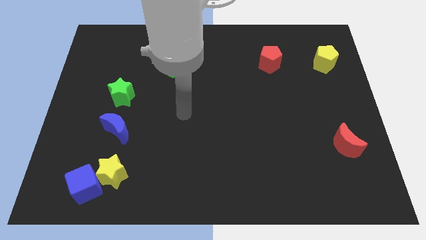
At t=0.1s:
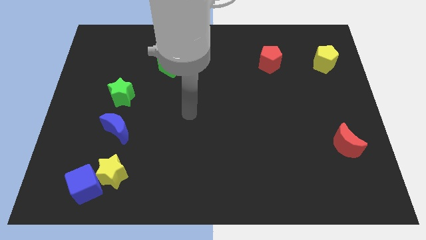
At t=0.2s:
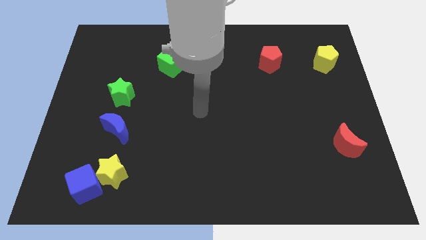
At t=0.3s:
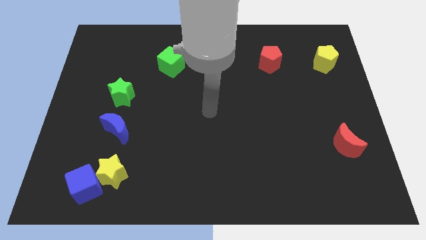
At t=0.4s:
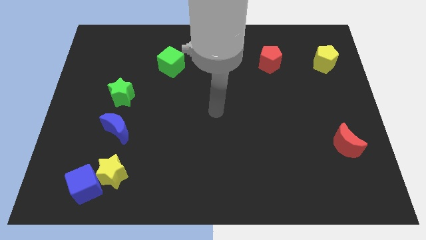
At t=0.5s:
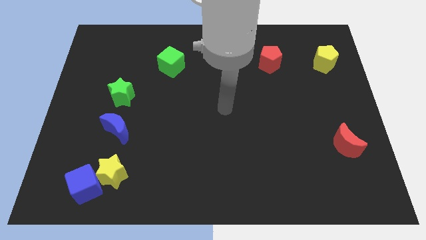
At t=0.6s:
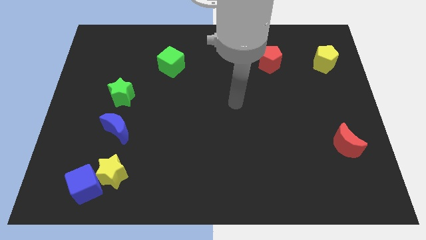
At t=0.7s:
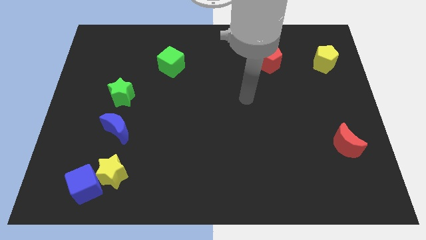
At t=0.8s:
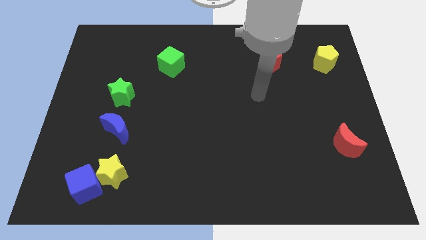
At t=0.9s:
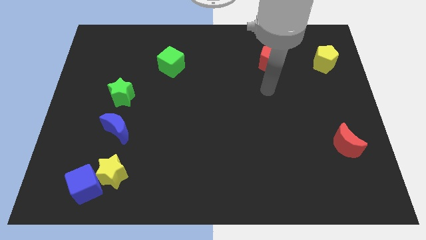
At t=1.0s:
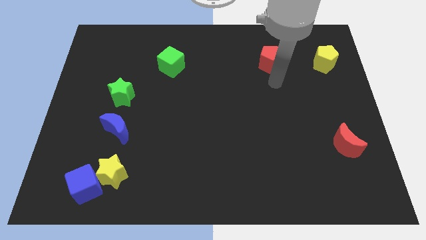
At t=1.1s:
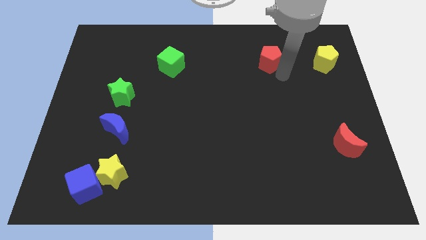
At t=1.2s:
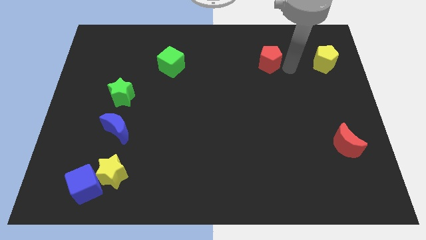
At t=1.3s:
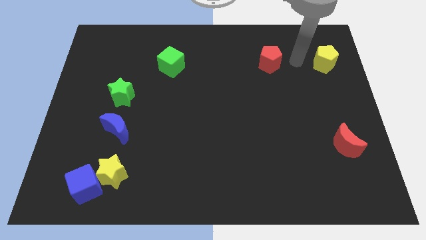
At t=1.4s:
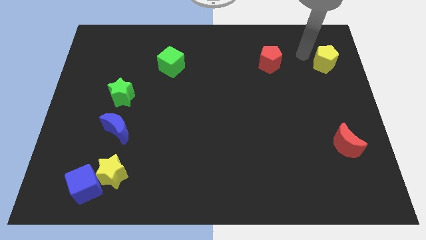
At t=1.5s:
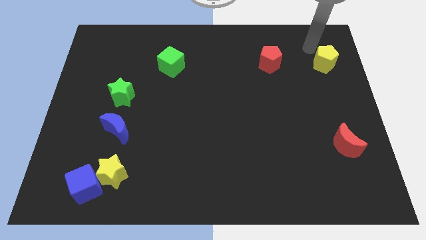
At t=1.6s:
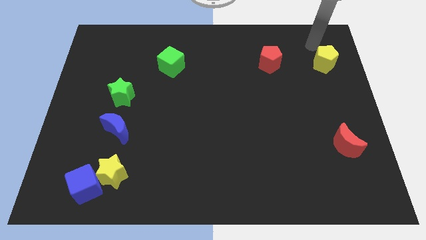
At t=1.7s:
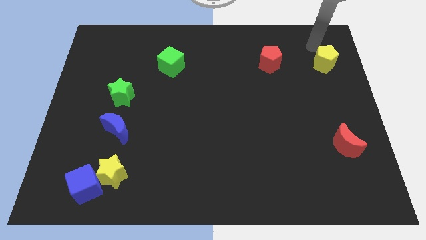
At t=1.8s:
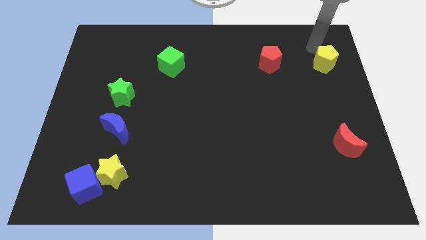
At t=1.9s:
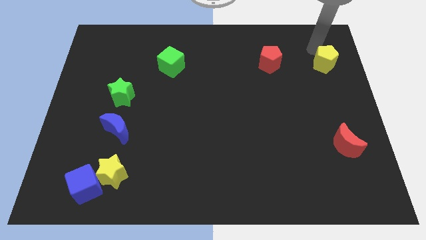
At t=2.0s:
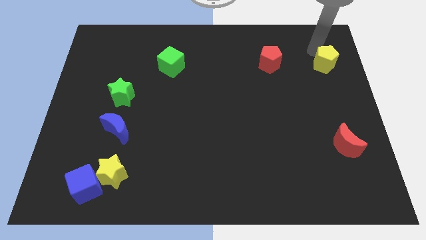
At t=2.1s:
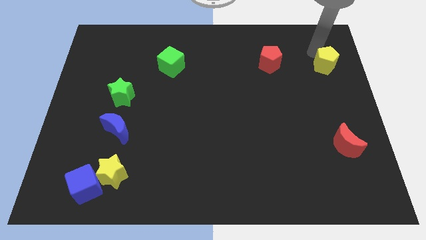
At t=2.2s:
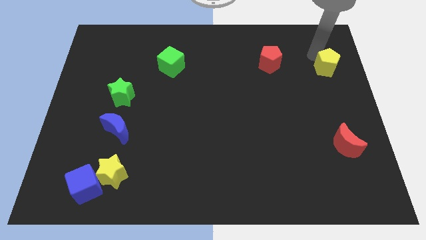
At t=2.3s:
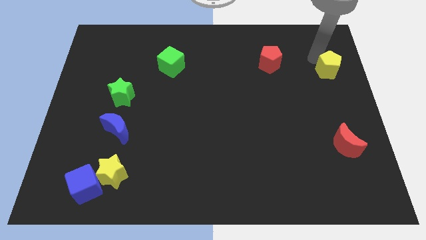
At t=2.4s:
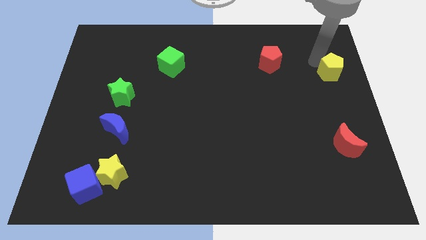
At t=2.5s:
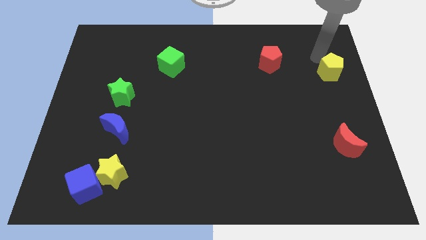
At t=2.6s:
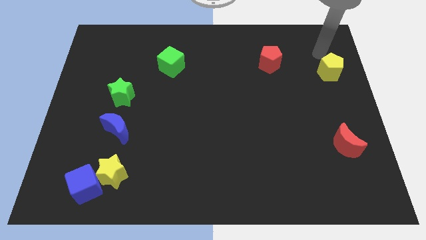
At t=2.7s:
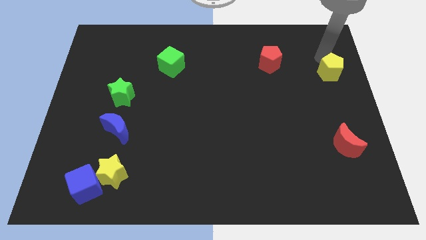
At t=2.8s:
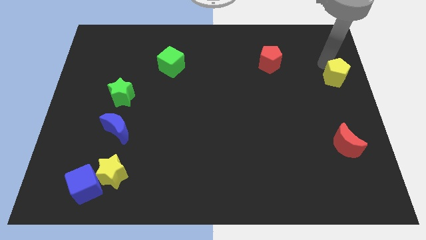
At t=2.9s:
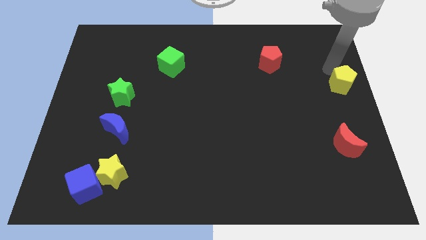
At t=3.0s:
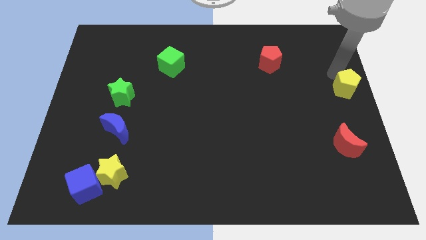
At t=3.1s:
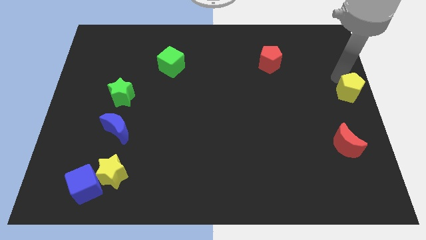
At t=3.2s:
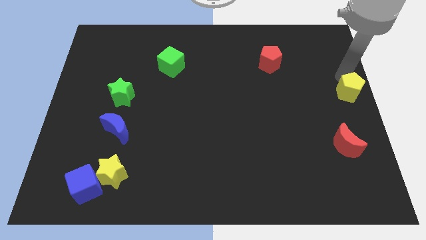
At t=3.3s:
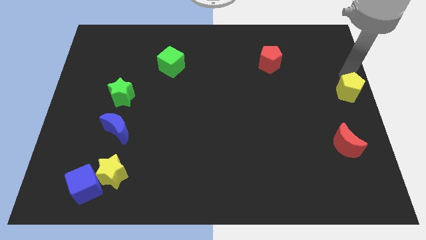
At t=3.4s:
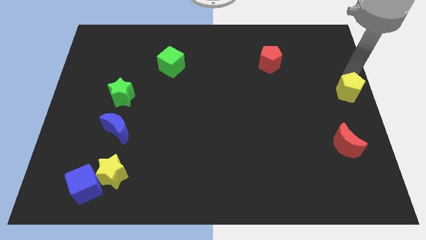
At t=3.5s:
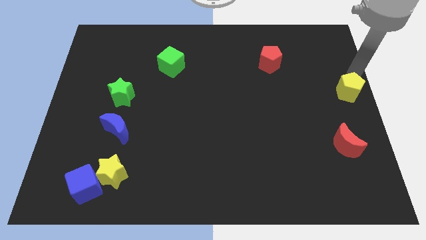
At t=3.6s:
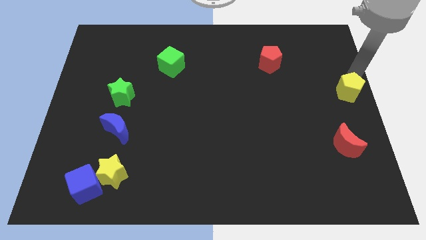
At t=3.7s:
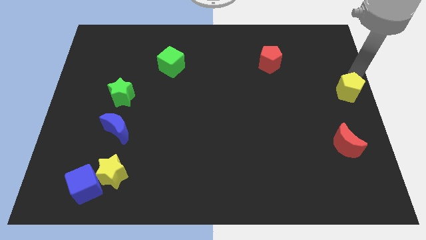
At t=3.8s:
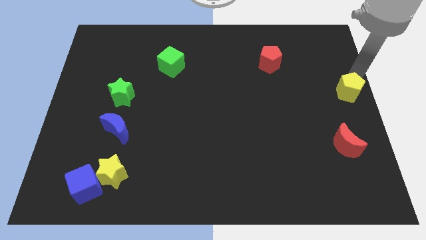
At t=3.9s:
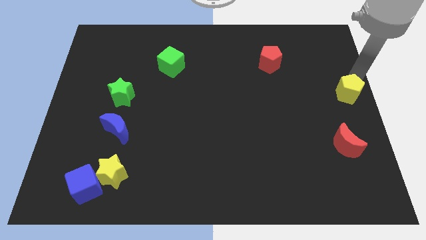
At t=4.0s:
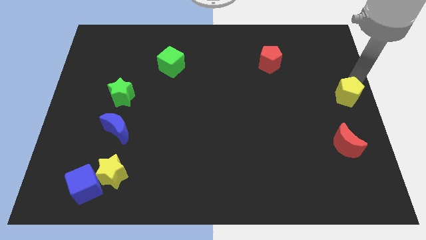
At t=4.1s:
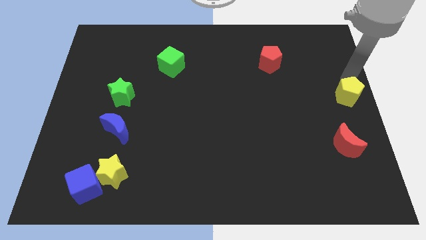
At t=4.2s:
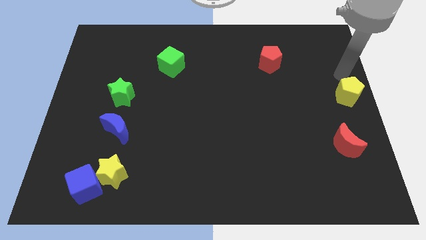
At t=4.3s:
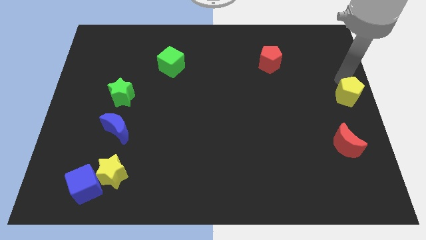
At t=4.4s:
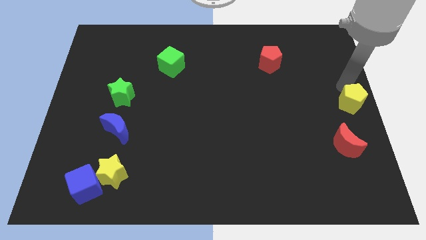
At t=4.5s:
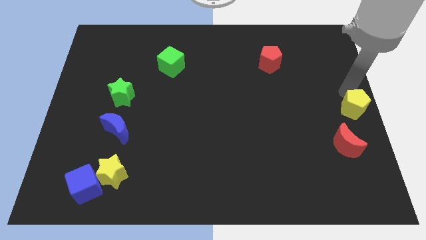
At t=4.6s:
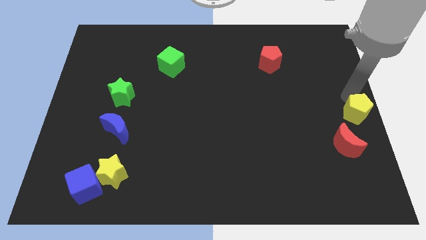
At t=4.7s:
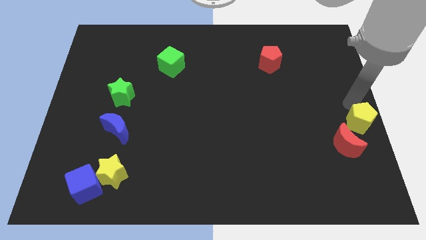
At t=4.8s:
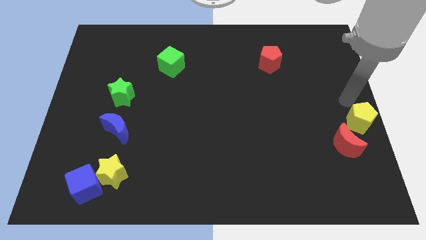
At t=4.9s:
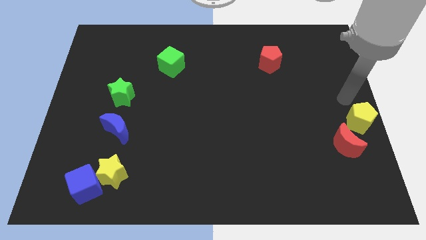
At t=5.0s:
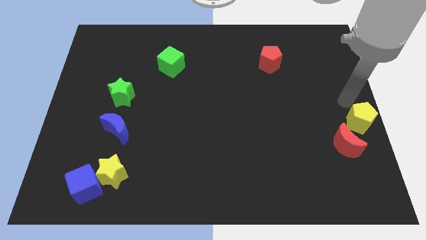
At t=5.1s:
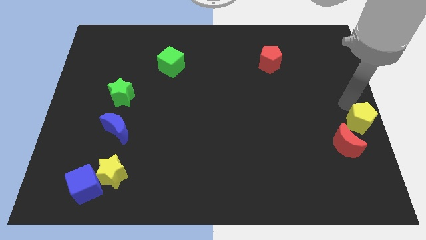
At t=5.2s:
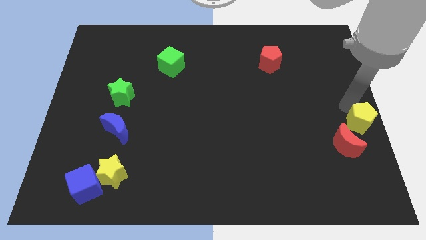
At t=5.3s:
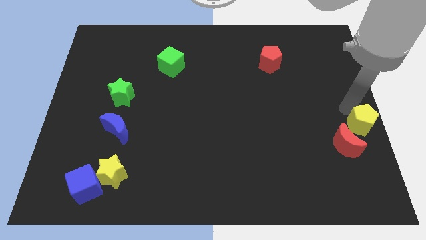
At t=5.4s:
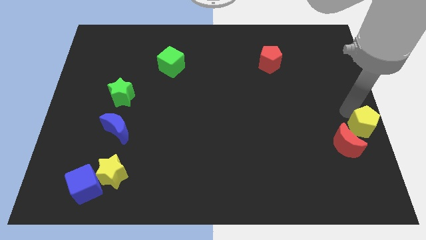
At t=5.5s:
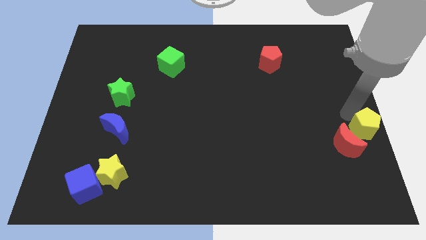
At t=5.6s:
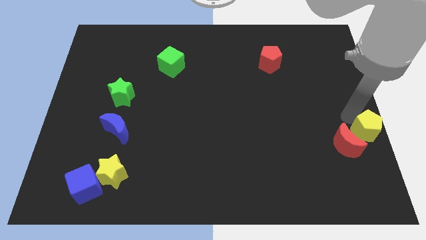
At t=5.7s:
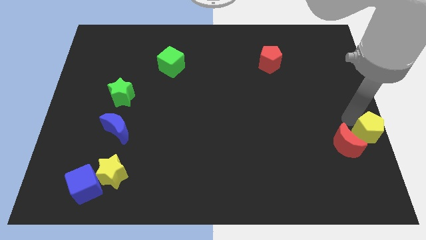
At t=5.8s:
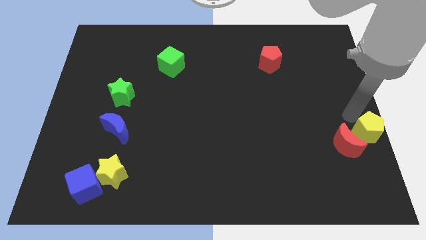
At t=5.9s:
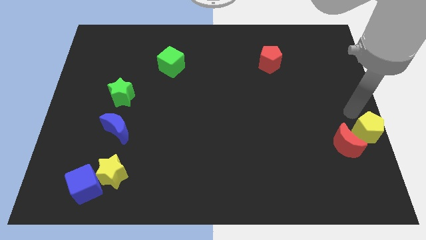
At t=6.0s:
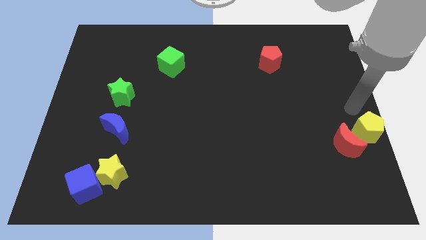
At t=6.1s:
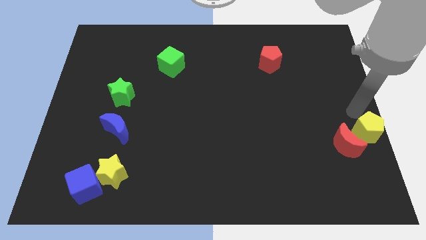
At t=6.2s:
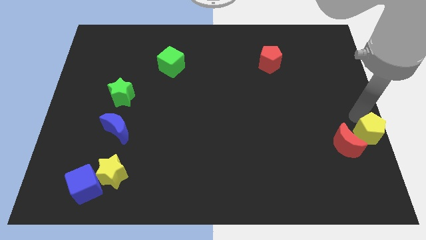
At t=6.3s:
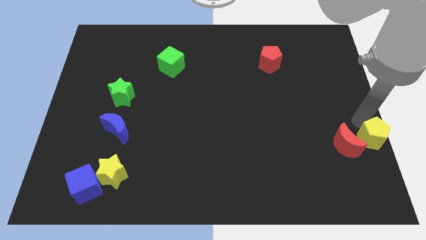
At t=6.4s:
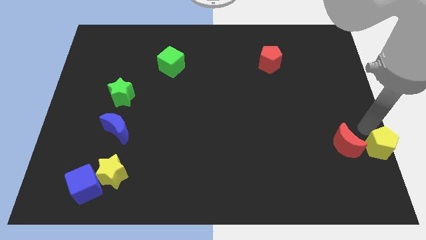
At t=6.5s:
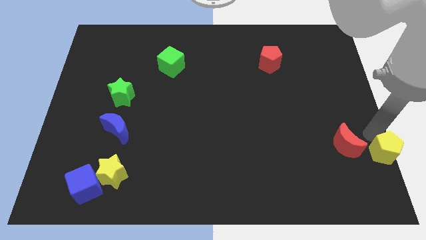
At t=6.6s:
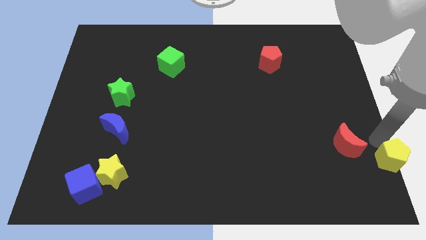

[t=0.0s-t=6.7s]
put the yellow pentagon to the bottom right
